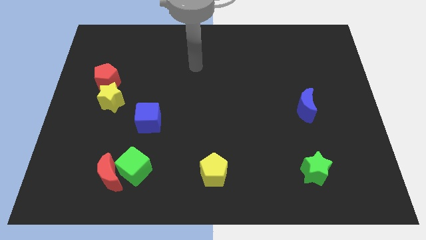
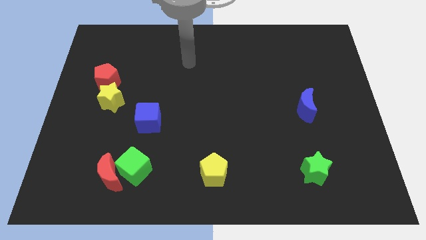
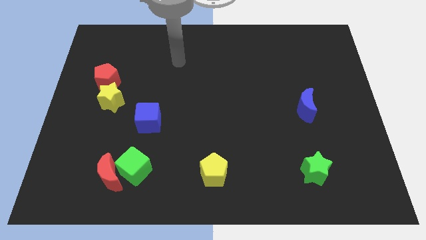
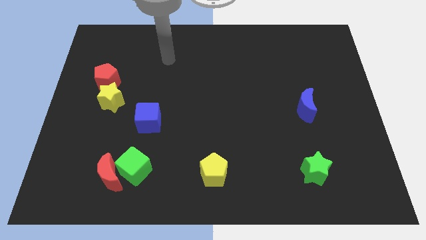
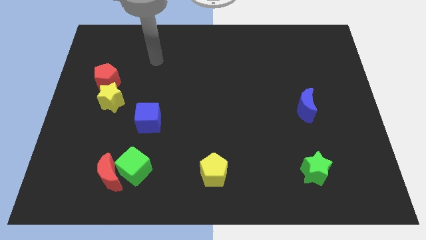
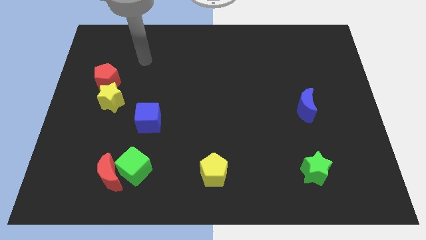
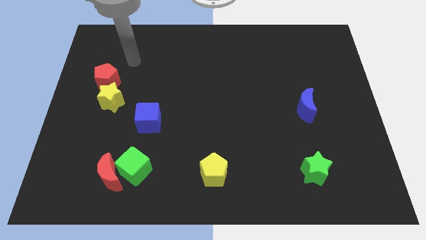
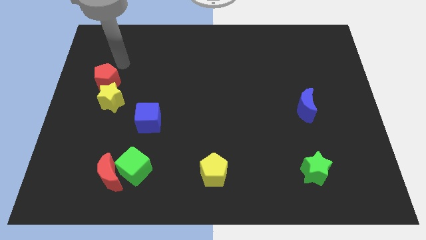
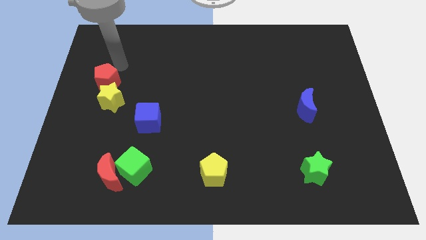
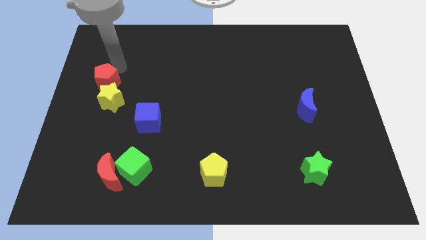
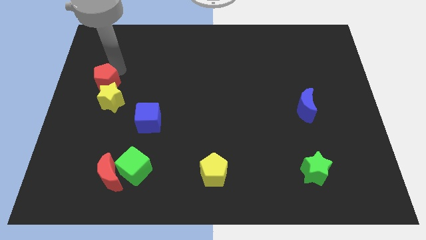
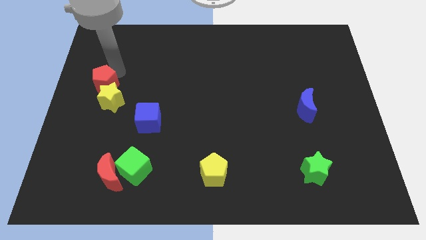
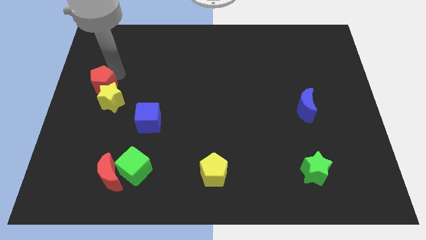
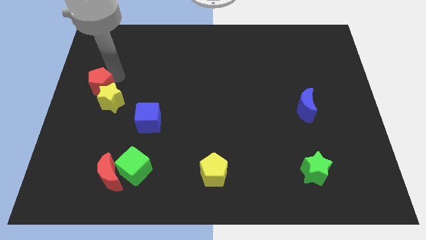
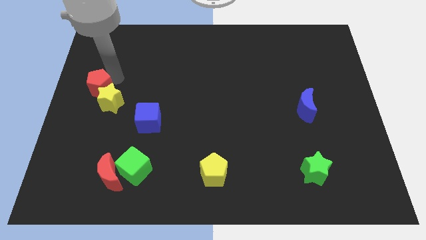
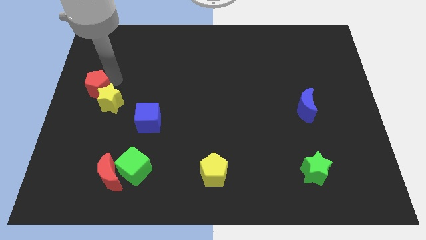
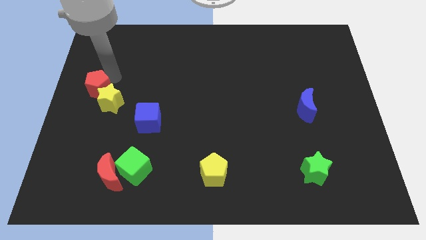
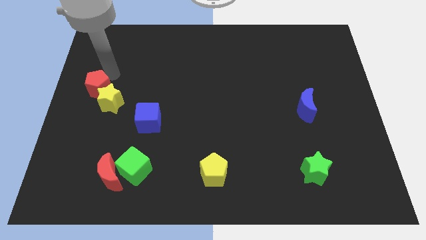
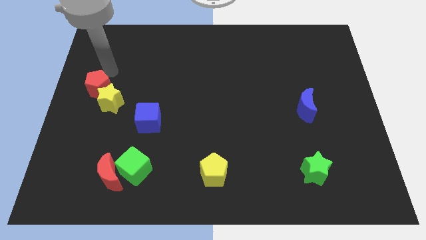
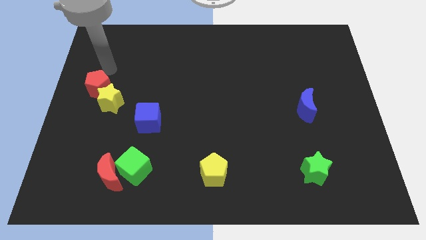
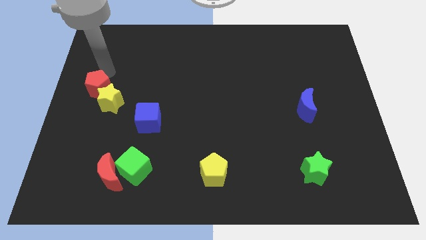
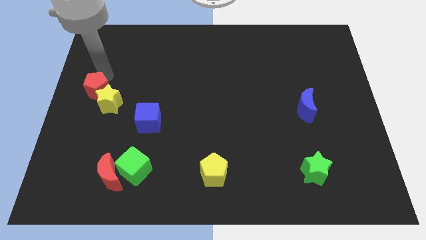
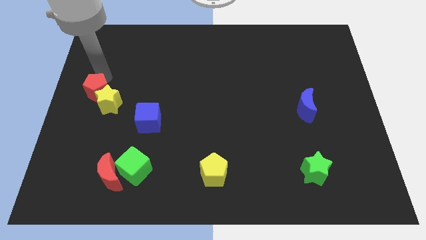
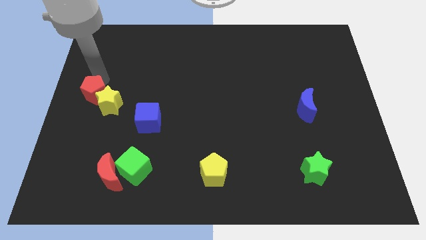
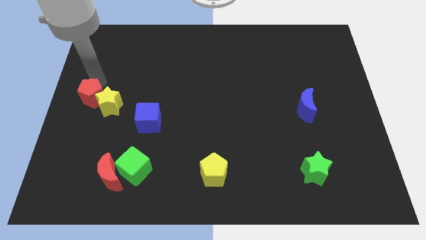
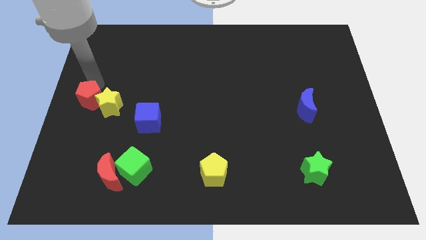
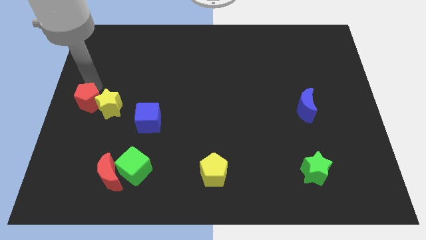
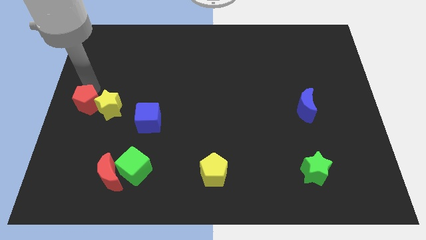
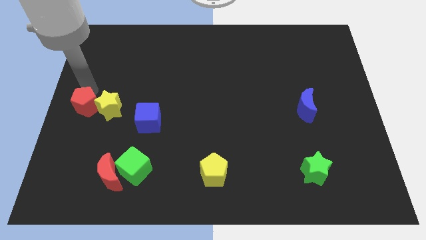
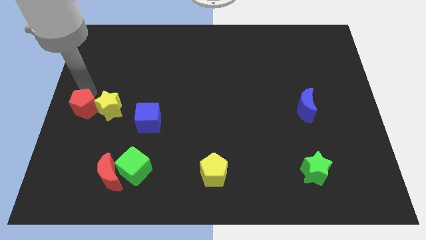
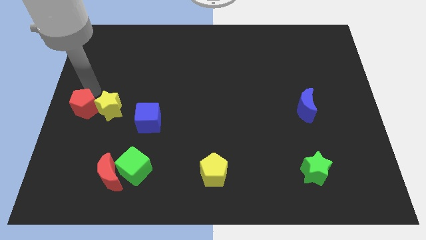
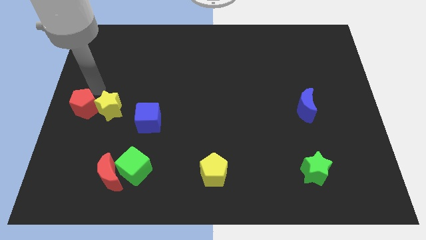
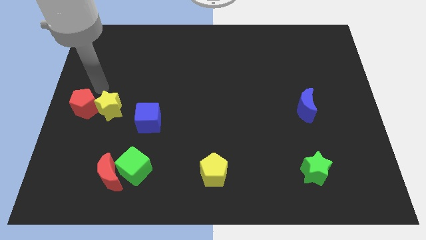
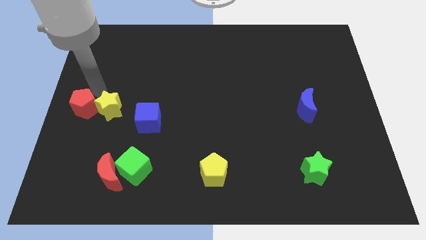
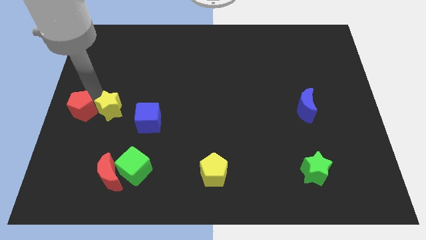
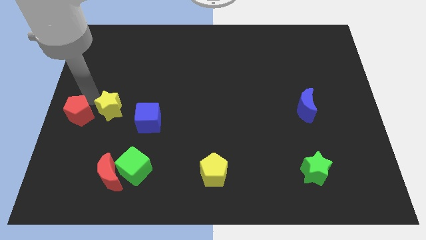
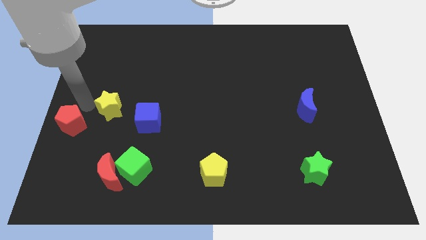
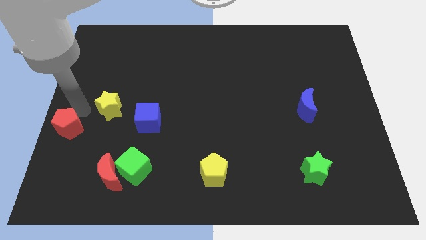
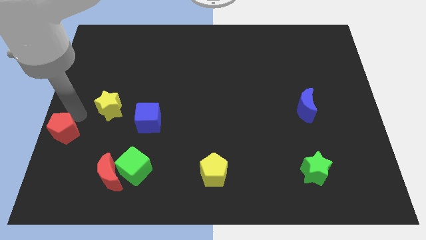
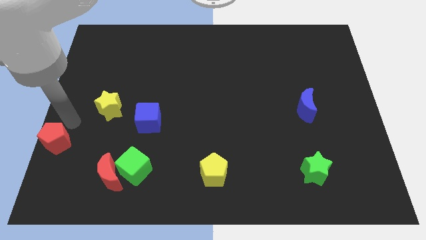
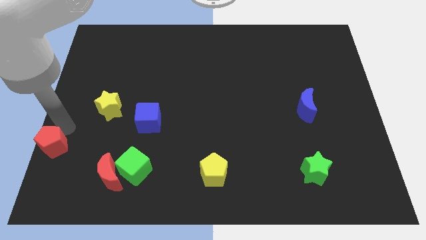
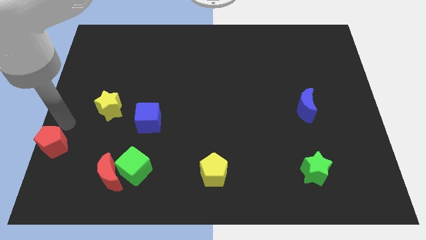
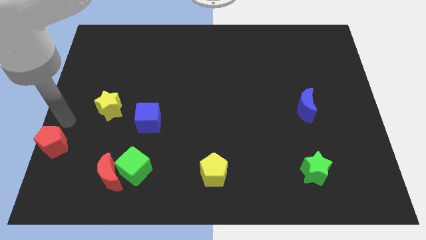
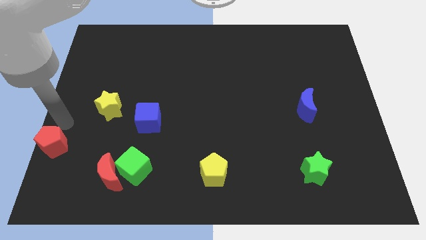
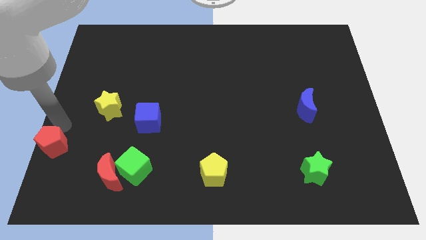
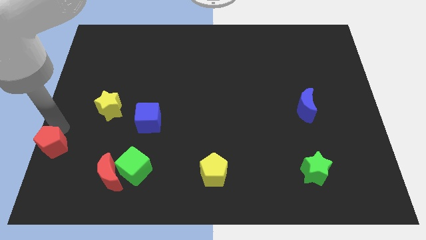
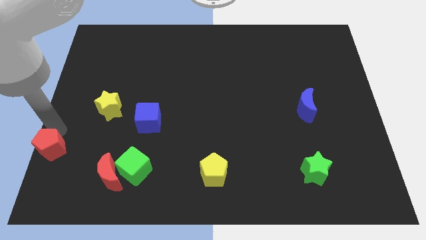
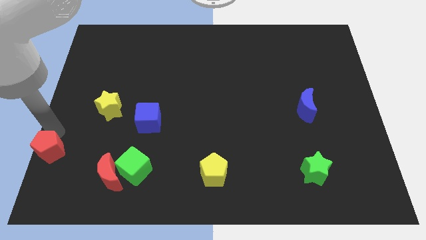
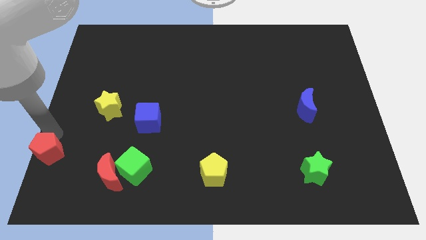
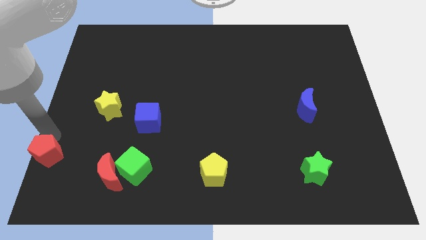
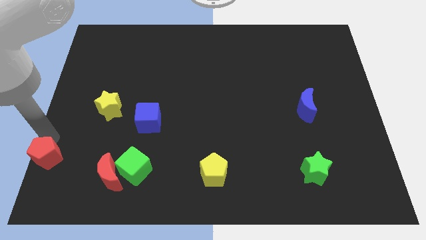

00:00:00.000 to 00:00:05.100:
slide the red pentagon to the bottom left corner

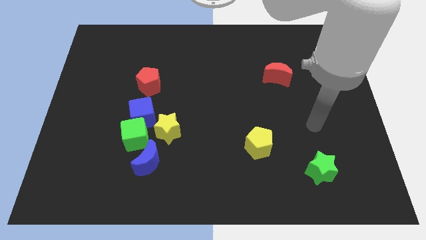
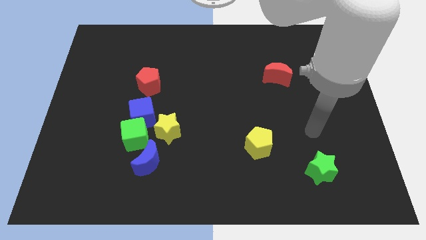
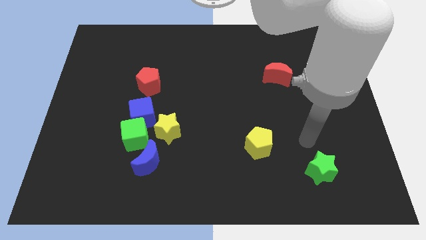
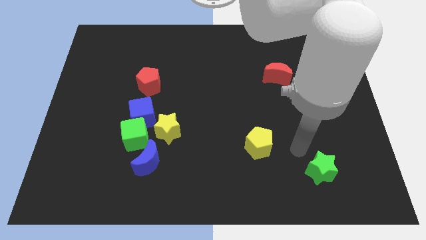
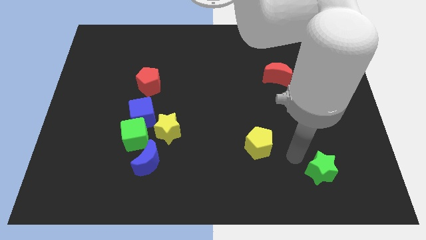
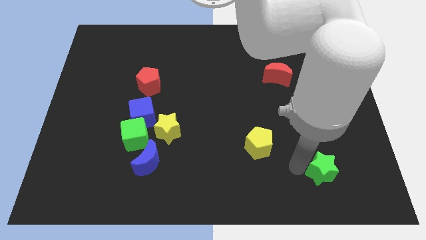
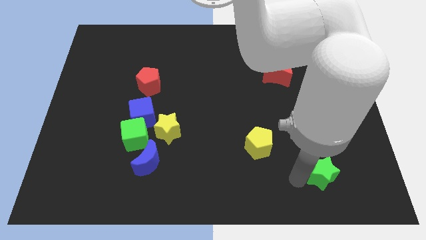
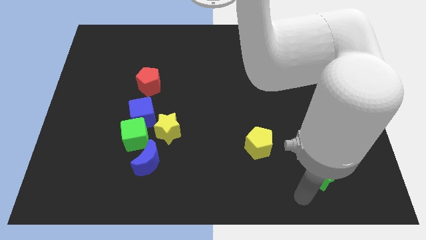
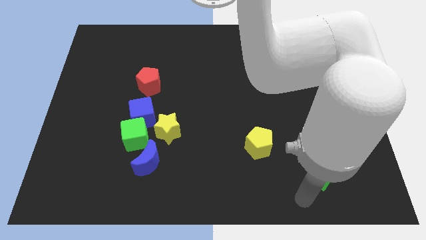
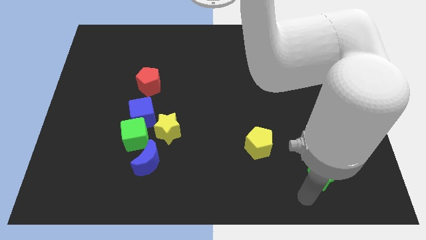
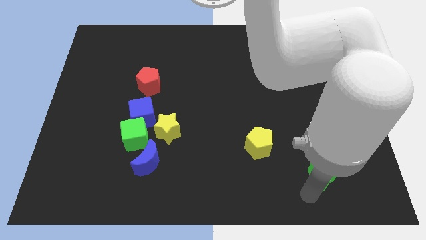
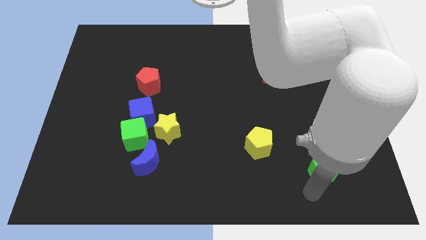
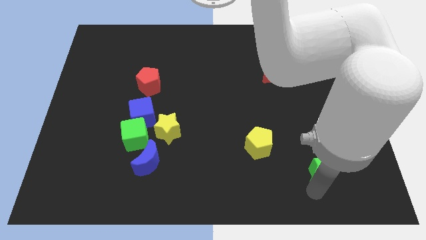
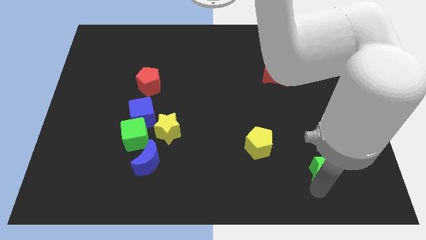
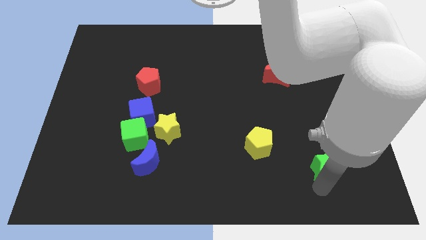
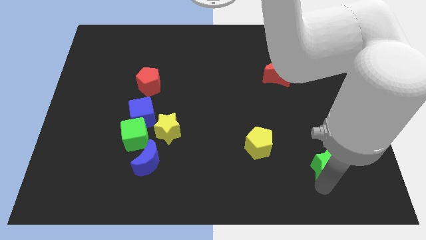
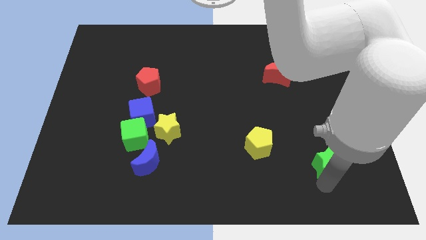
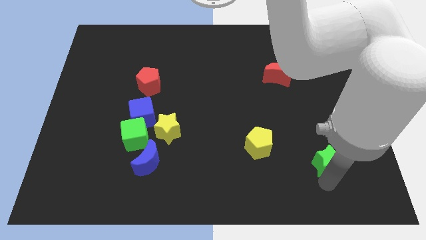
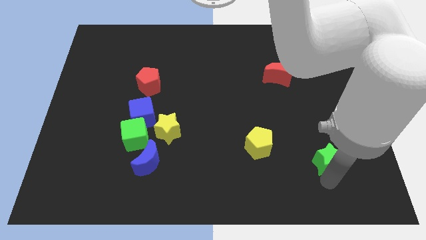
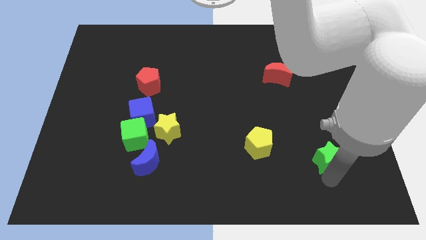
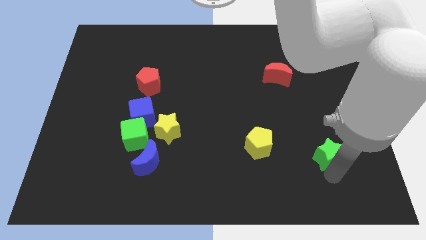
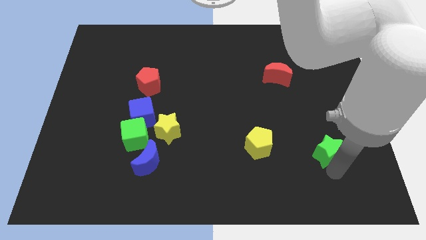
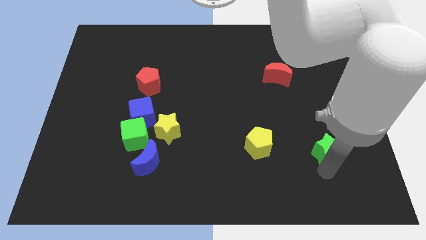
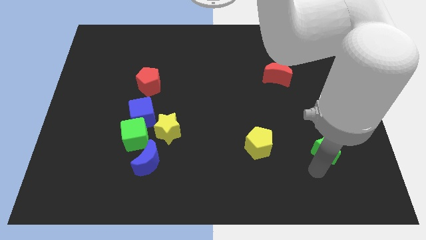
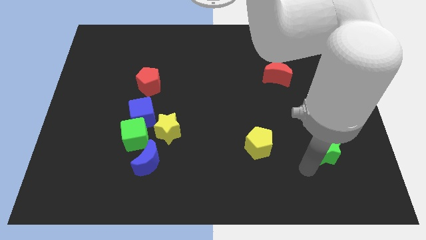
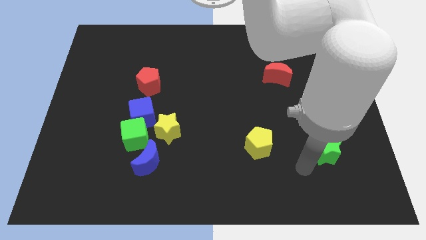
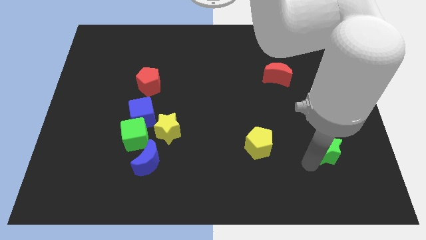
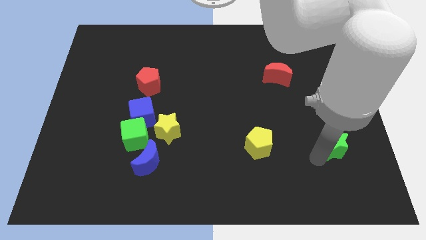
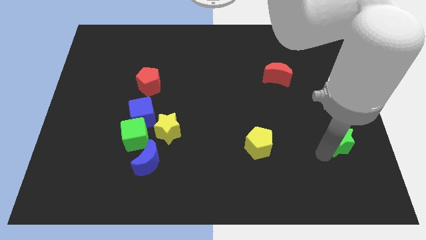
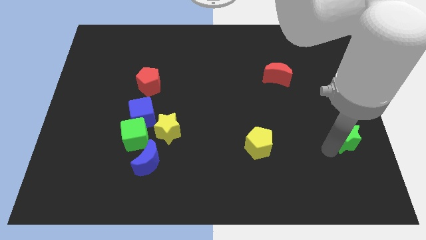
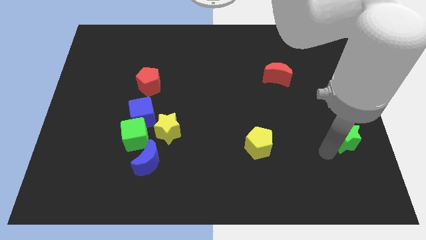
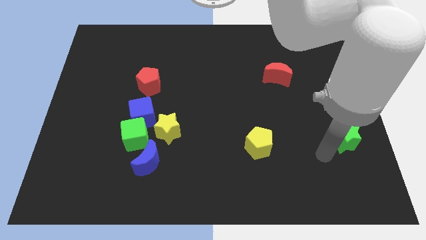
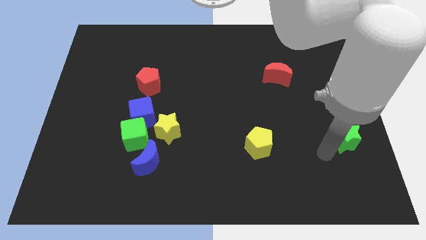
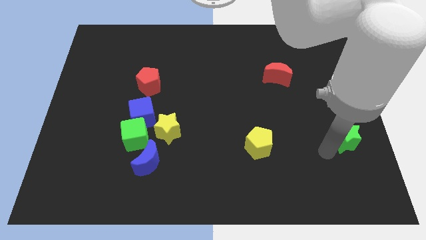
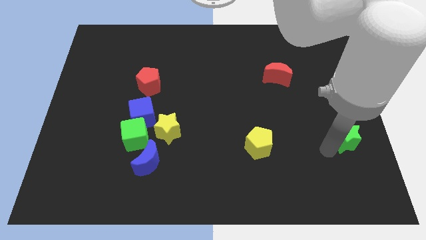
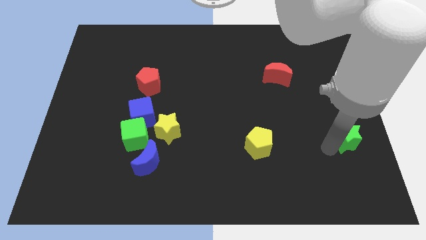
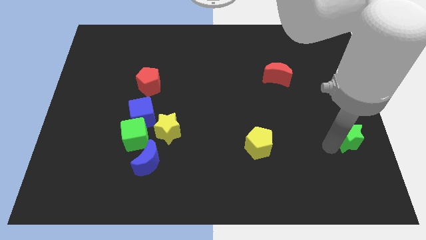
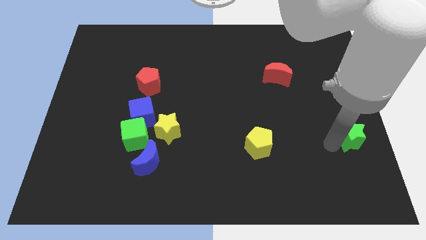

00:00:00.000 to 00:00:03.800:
push the green star to the right side of the board
